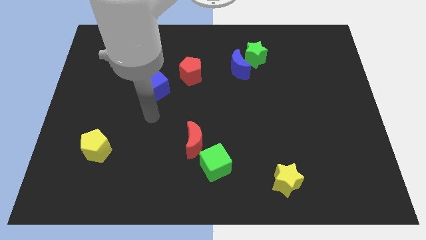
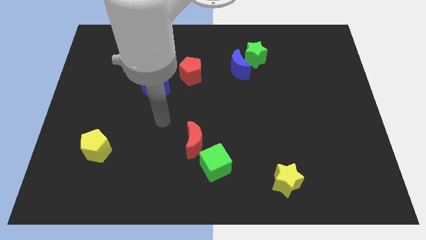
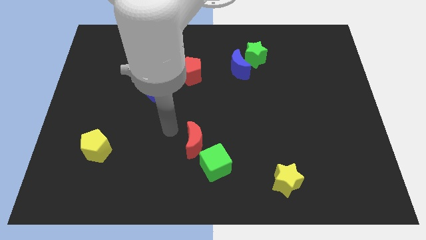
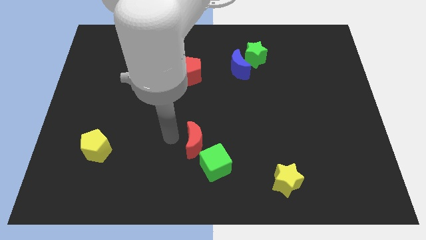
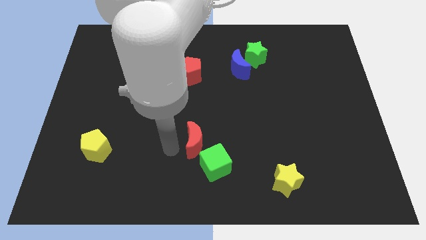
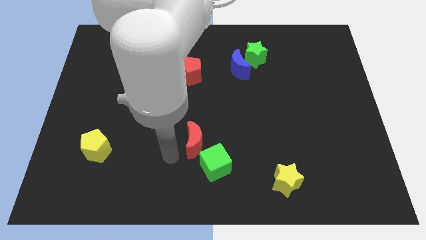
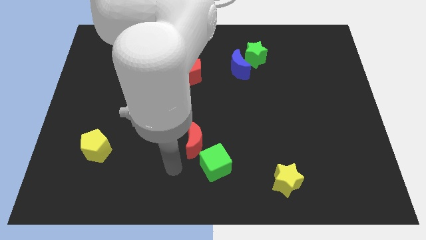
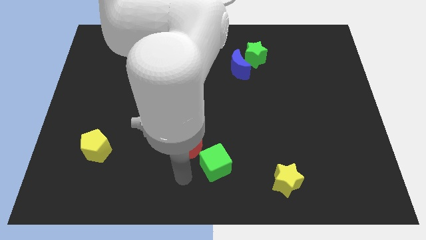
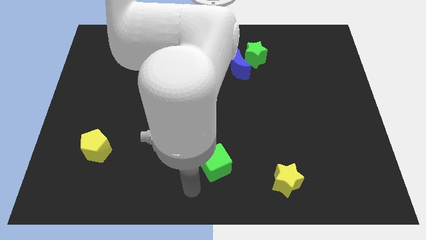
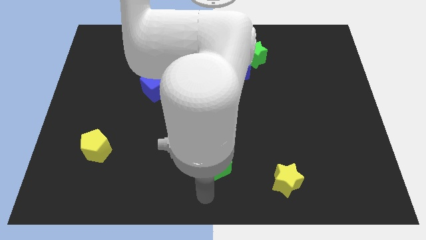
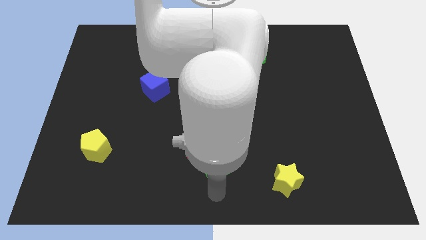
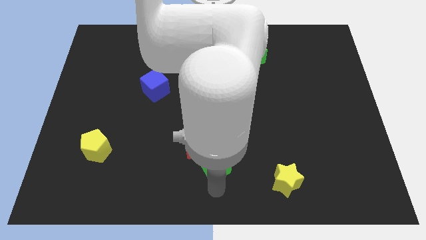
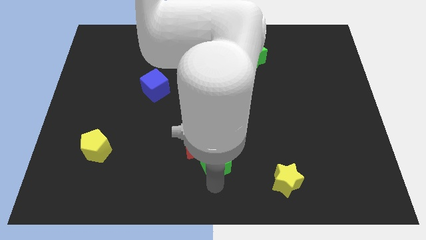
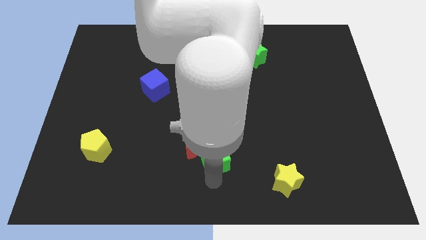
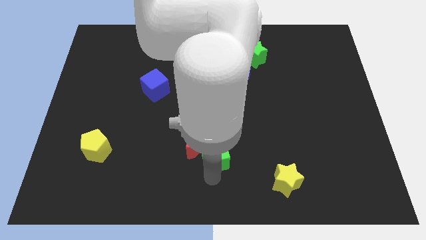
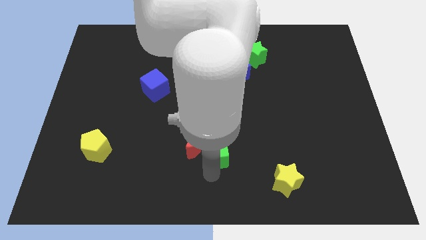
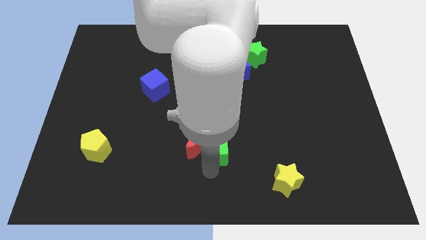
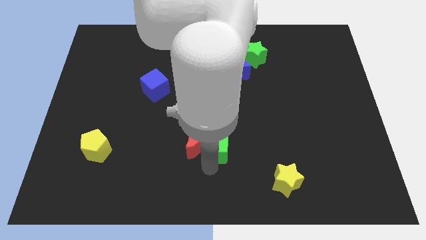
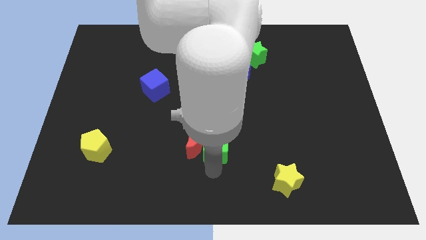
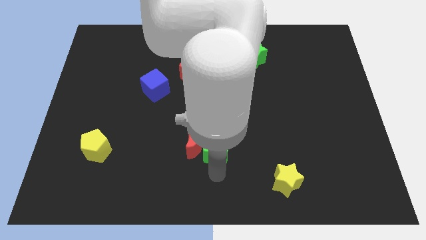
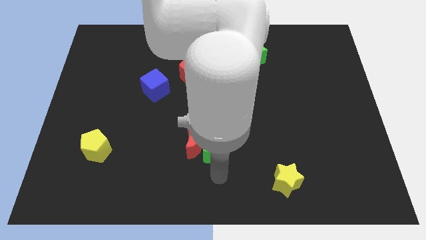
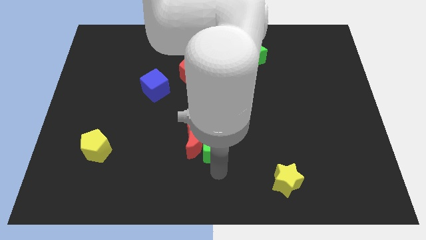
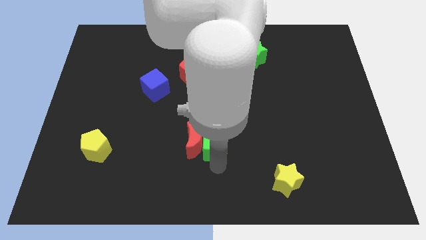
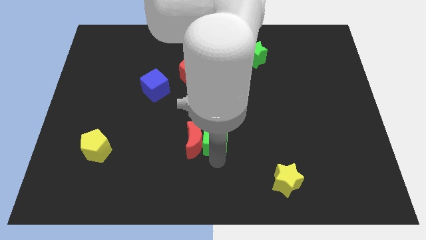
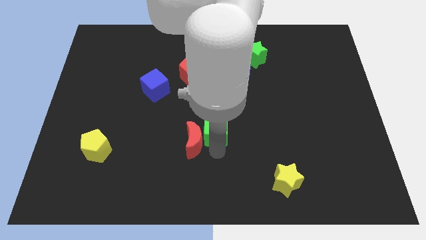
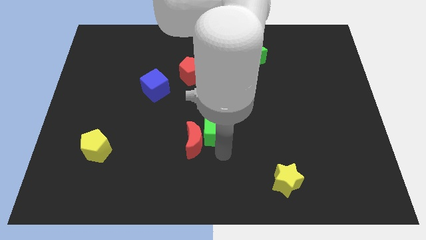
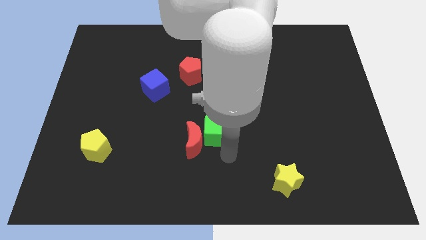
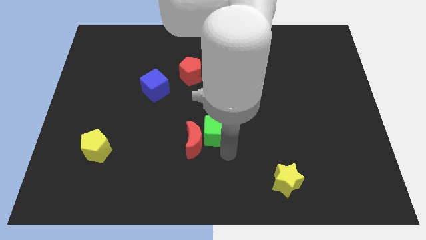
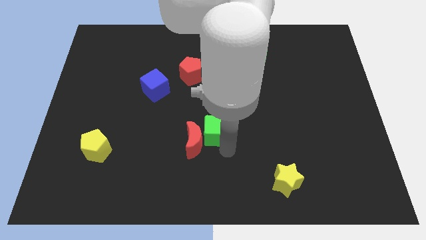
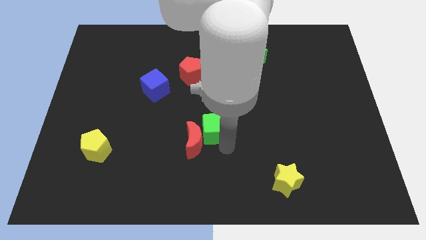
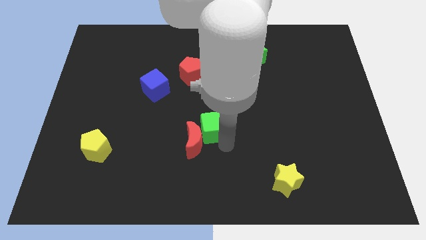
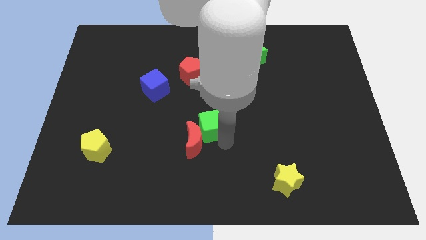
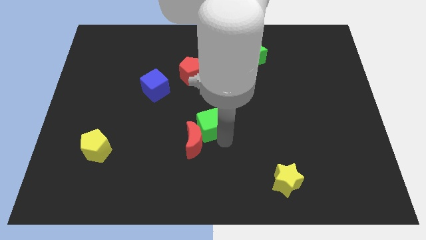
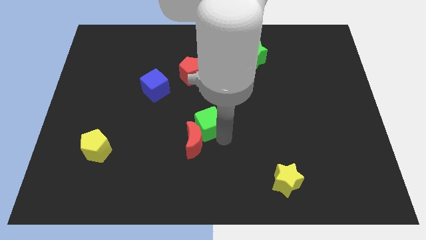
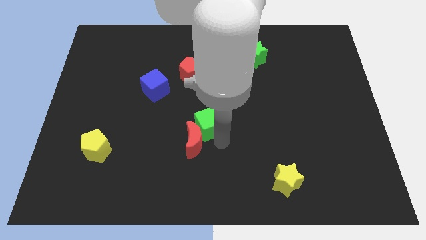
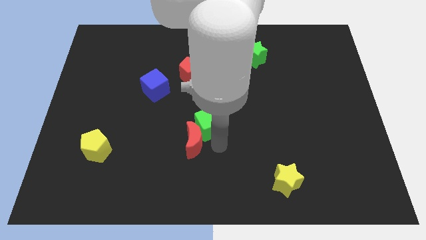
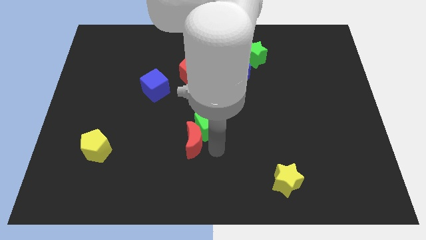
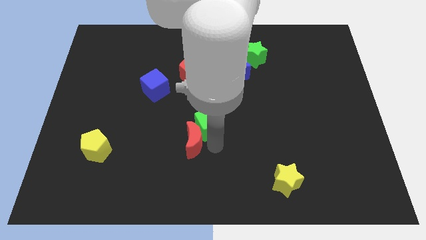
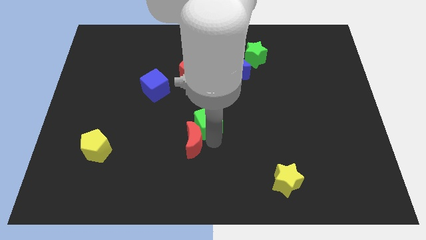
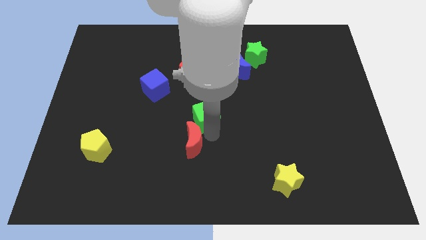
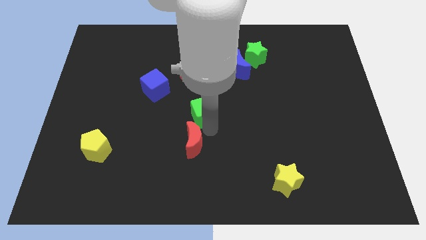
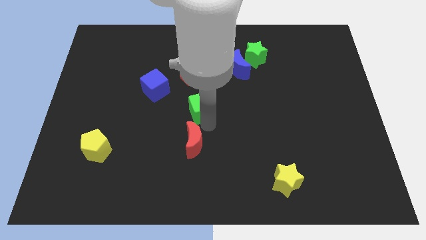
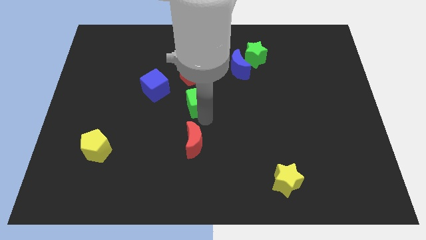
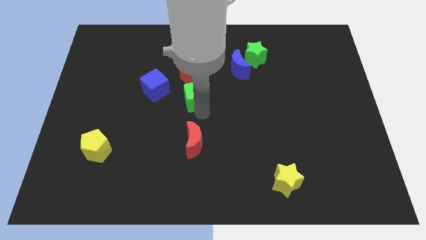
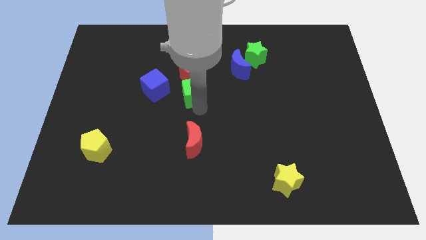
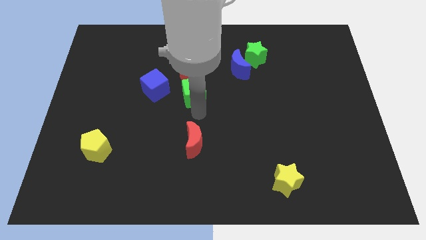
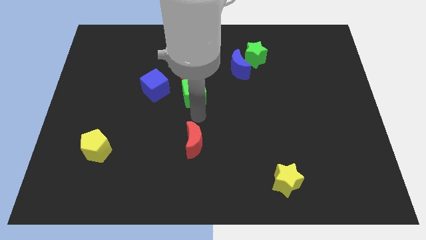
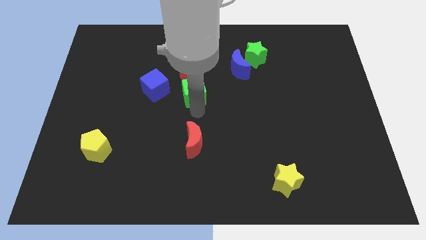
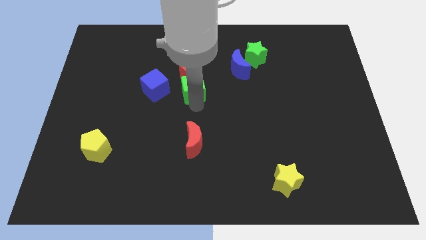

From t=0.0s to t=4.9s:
push the green cube towards the red pentagon

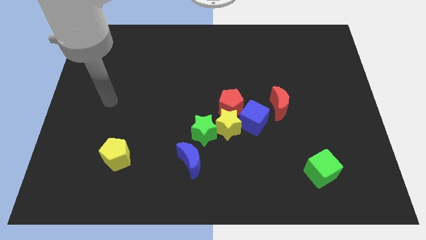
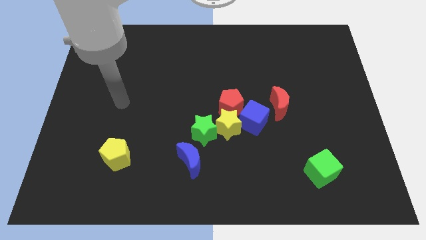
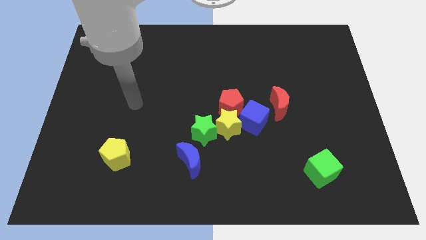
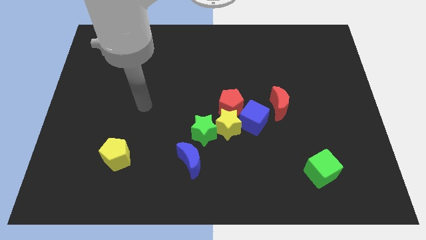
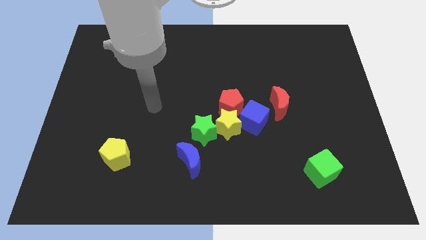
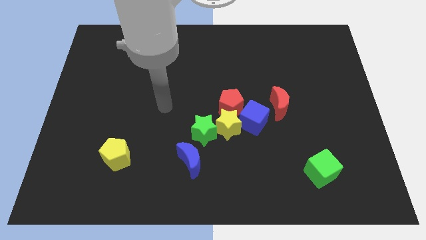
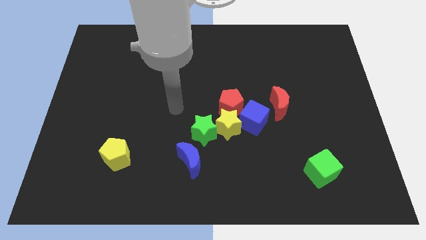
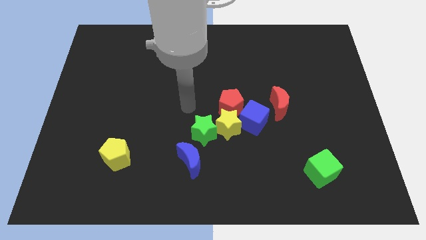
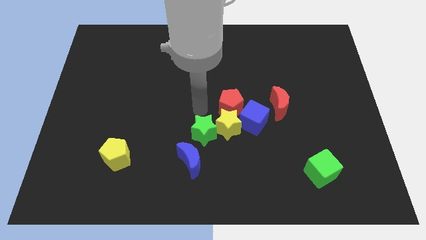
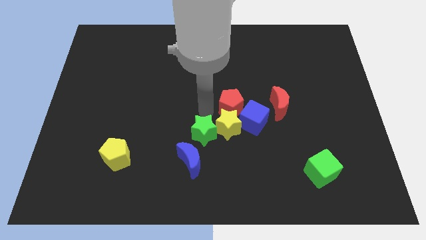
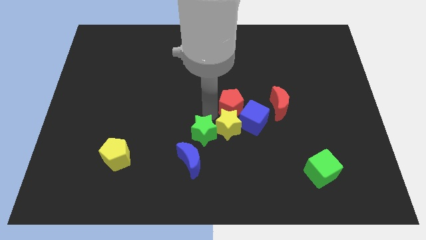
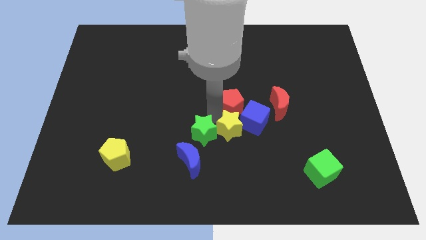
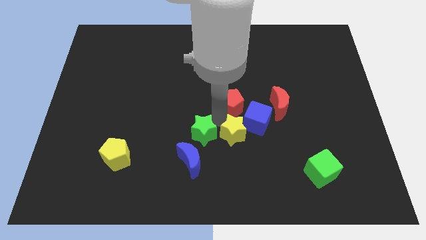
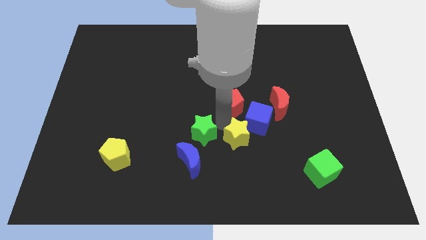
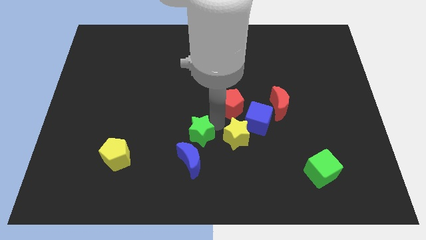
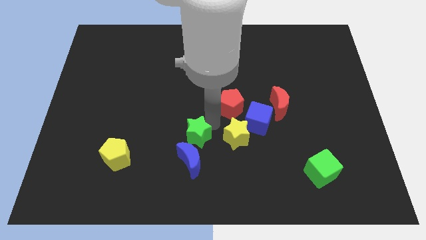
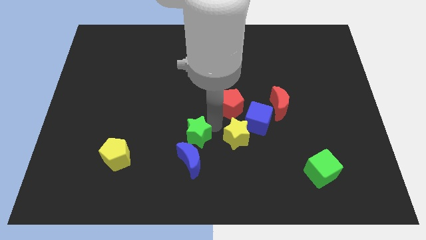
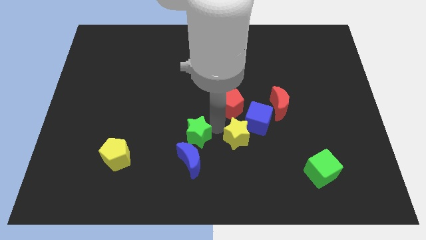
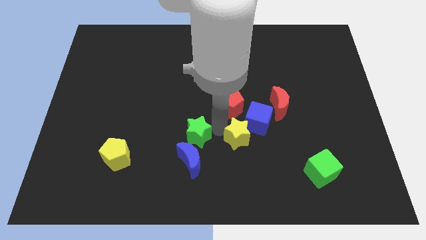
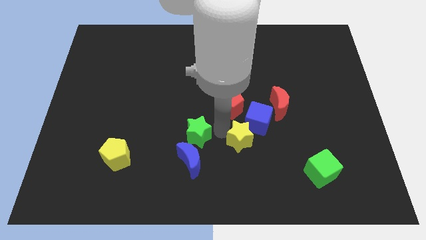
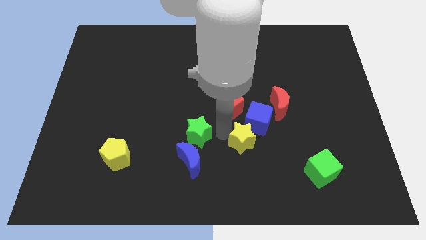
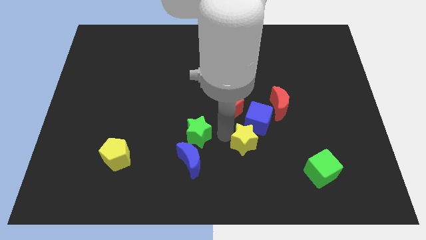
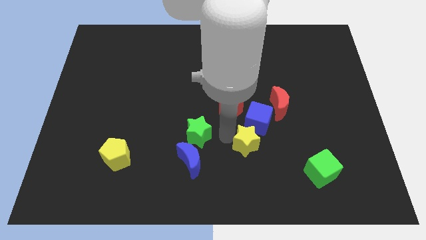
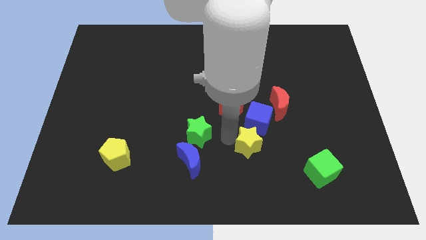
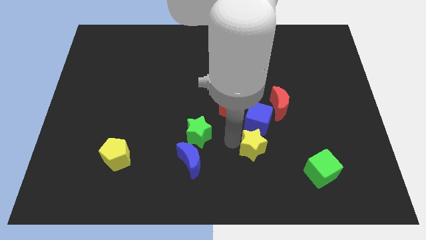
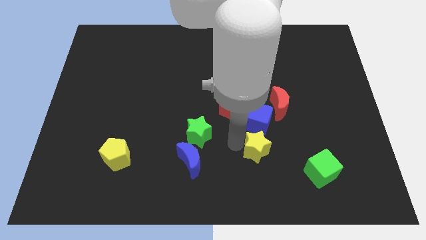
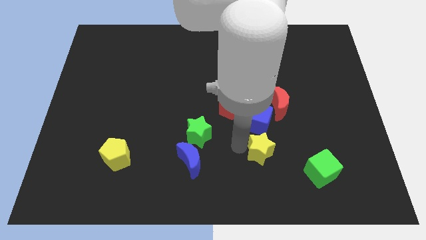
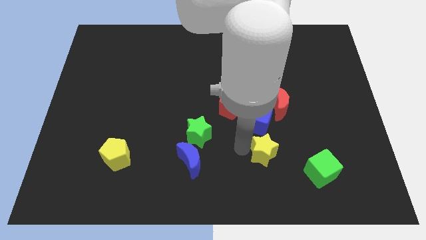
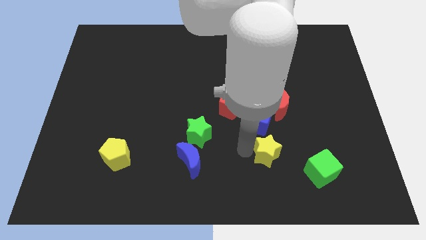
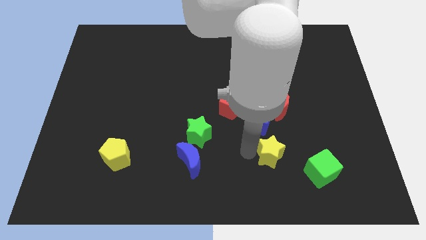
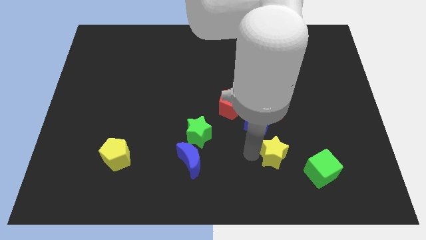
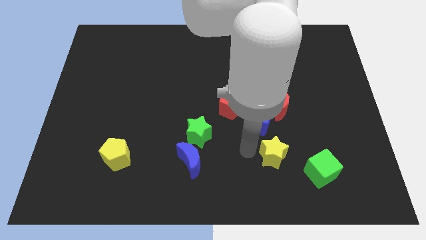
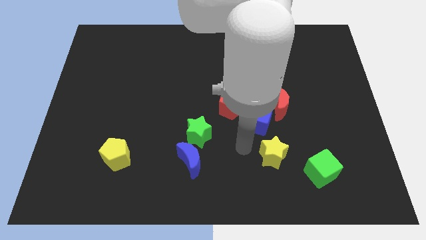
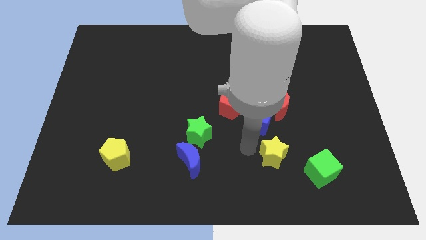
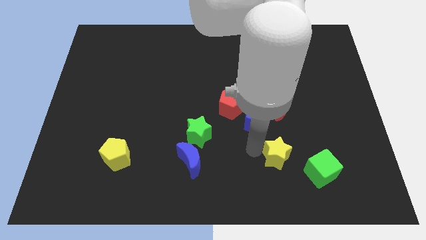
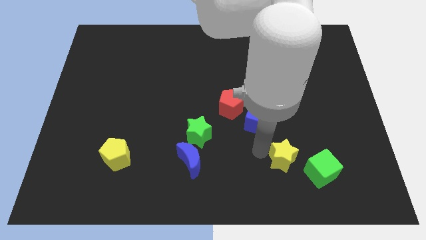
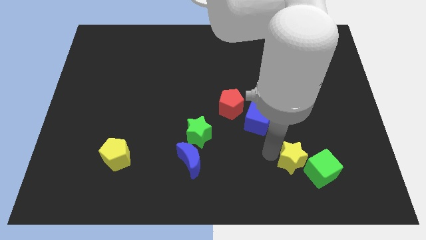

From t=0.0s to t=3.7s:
slide the yellow star next to the green cube
